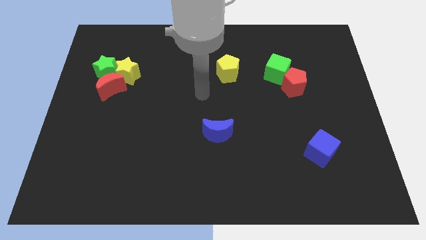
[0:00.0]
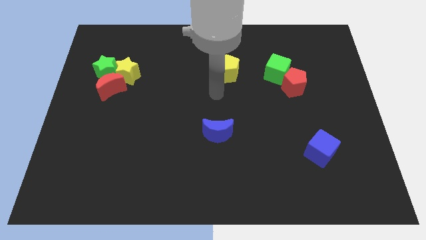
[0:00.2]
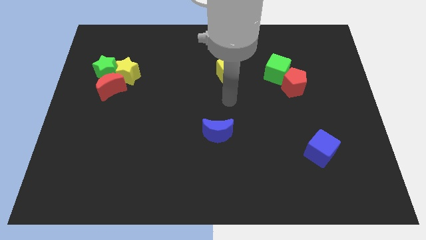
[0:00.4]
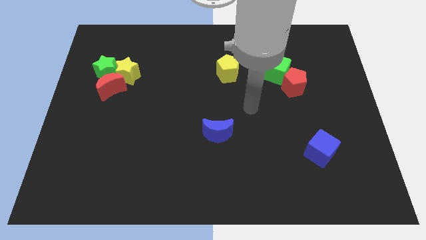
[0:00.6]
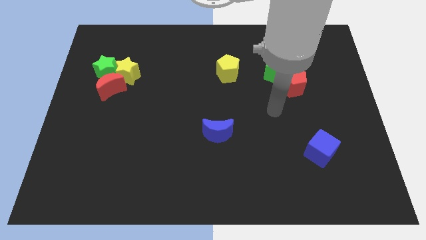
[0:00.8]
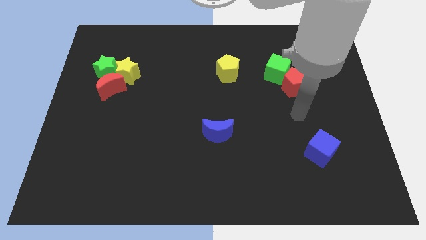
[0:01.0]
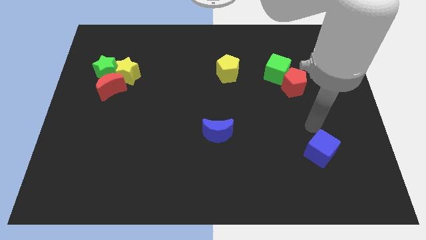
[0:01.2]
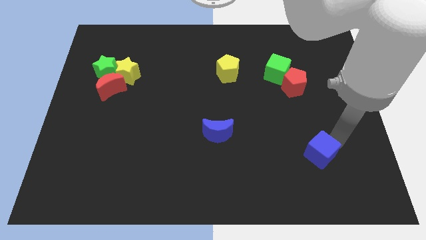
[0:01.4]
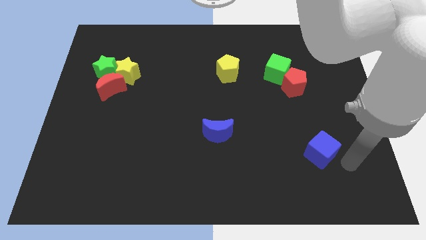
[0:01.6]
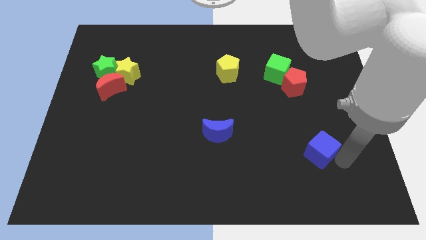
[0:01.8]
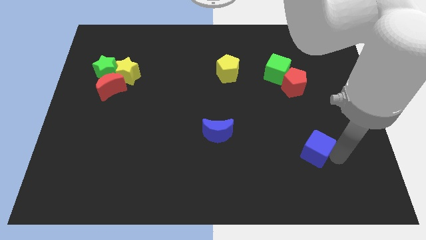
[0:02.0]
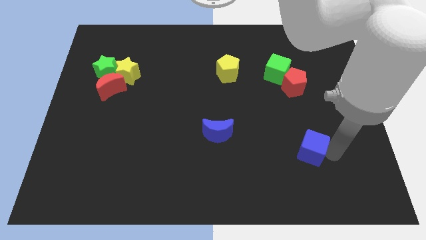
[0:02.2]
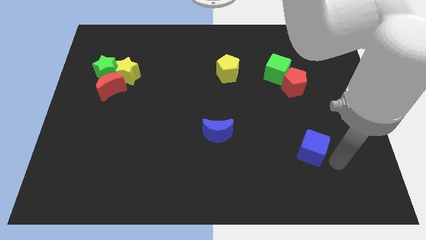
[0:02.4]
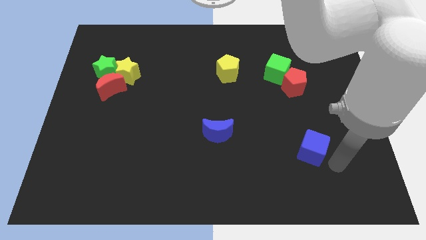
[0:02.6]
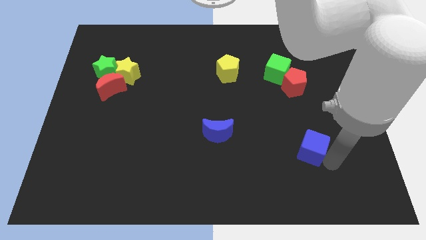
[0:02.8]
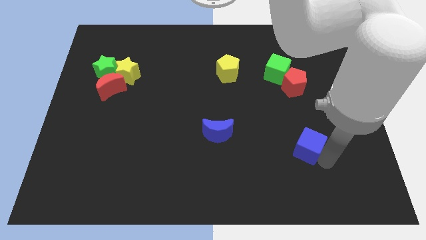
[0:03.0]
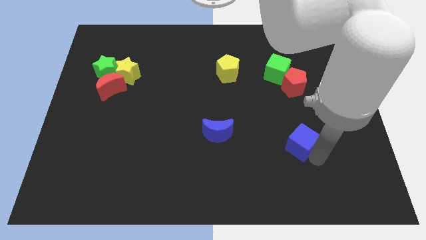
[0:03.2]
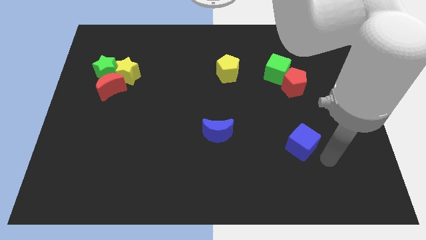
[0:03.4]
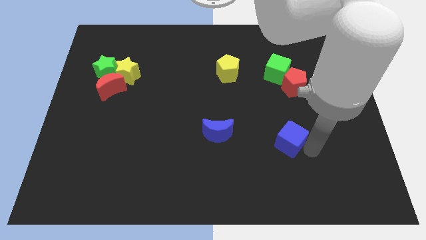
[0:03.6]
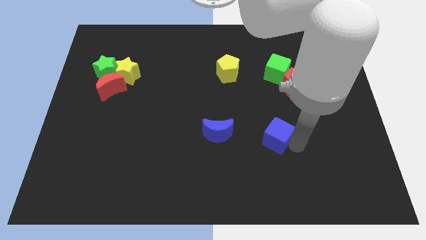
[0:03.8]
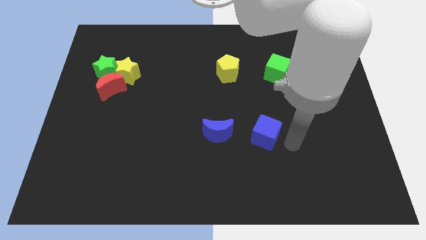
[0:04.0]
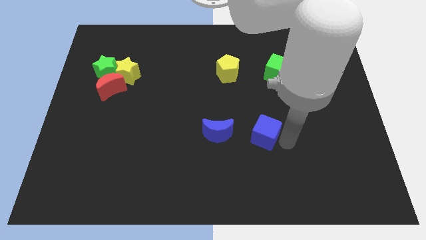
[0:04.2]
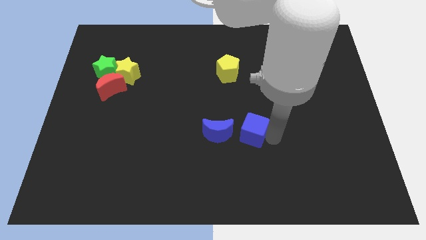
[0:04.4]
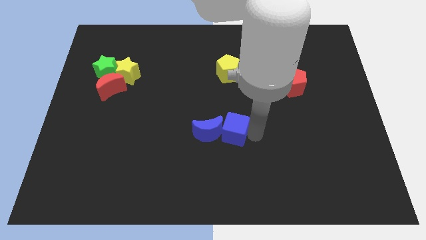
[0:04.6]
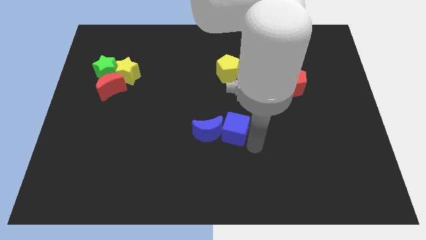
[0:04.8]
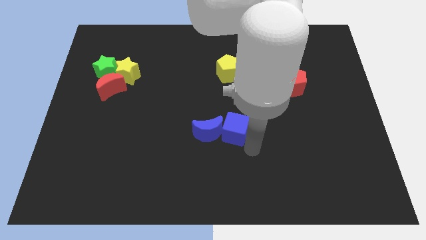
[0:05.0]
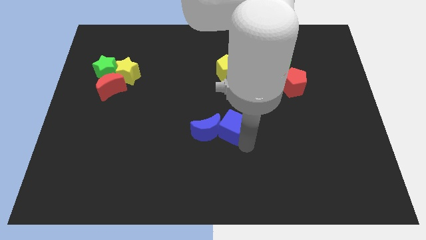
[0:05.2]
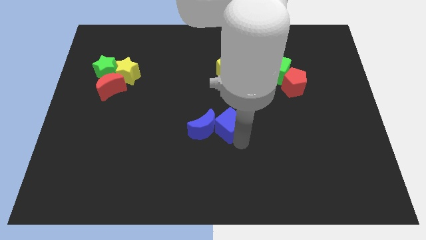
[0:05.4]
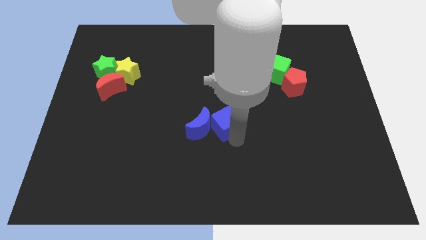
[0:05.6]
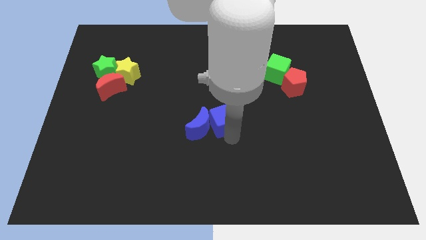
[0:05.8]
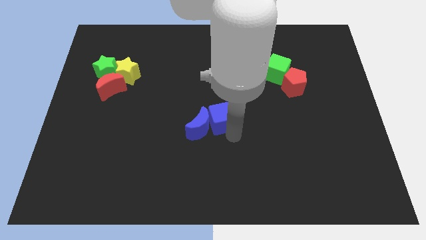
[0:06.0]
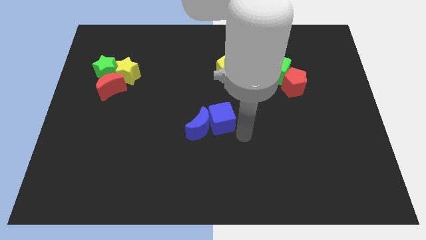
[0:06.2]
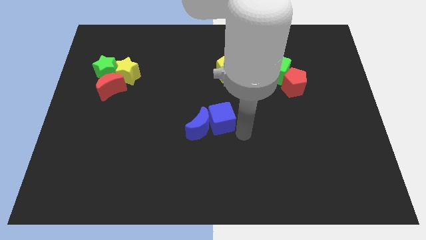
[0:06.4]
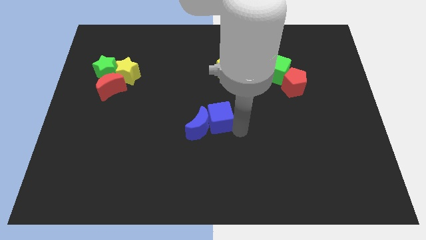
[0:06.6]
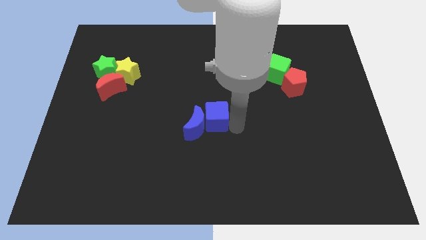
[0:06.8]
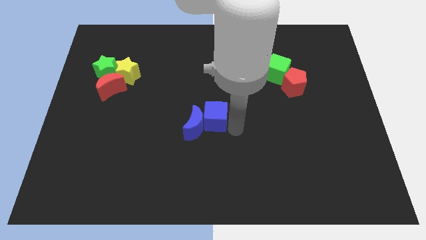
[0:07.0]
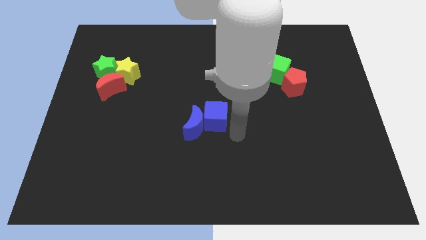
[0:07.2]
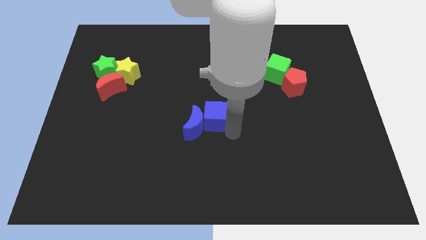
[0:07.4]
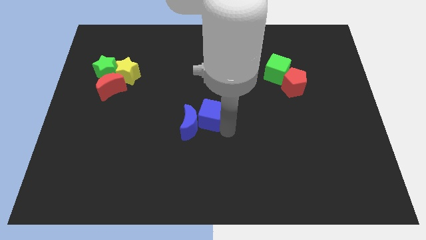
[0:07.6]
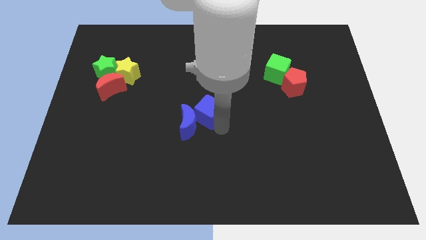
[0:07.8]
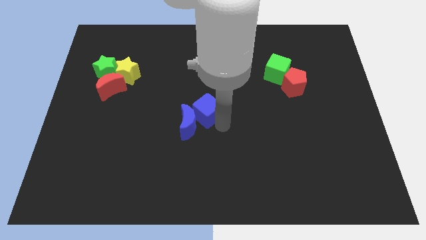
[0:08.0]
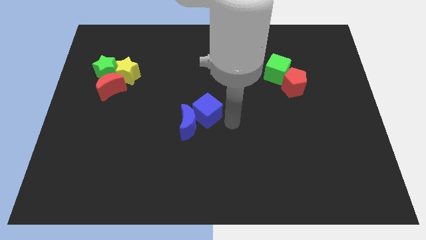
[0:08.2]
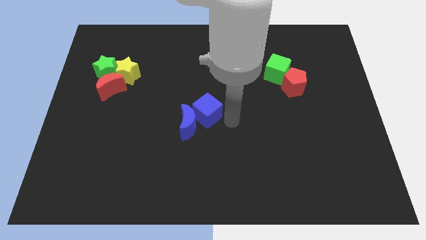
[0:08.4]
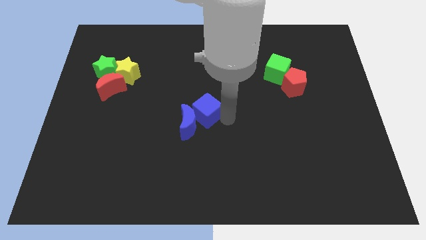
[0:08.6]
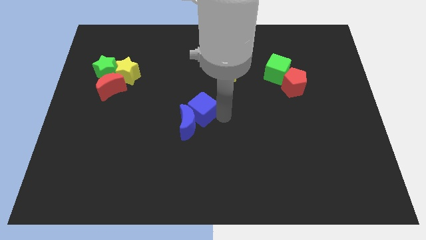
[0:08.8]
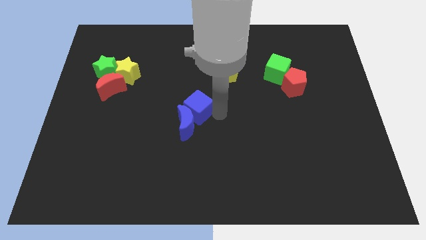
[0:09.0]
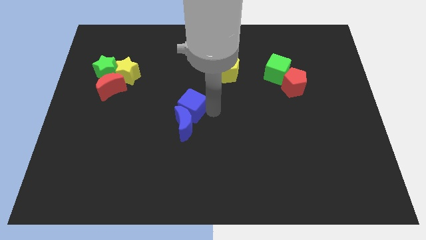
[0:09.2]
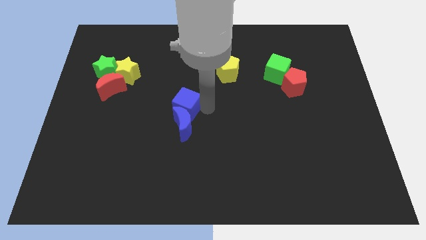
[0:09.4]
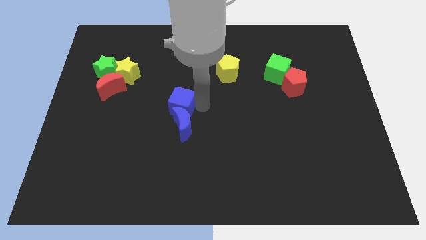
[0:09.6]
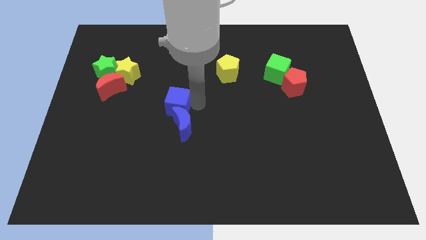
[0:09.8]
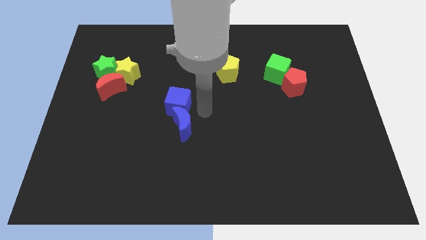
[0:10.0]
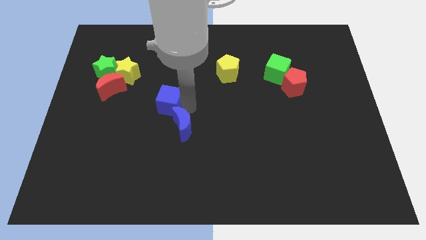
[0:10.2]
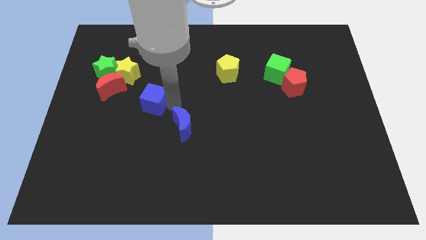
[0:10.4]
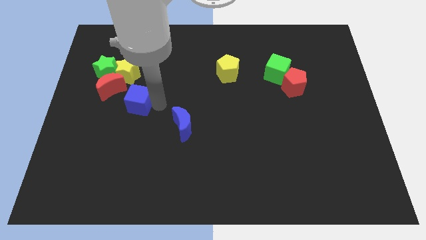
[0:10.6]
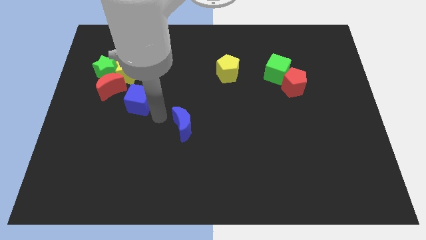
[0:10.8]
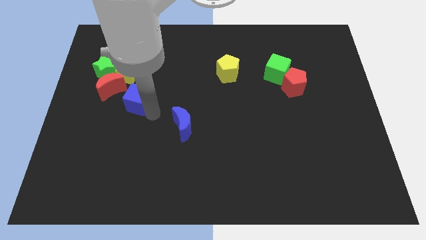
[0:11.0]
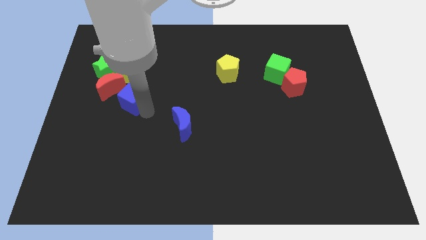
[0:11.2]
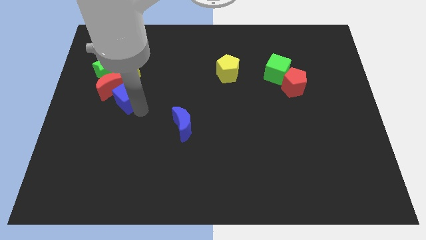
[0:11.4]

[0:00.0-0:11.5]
move the blue cube to the red moon

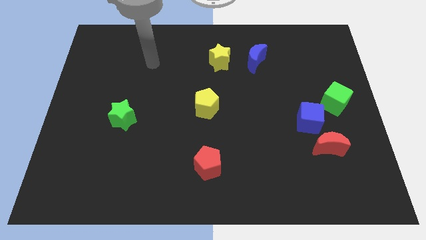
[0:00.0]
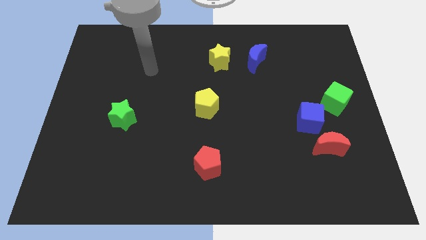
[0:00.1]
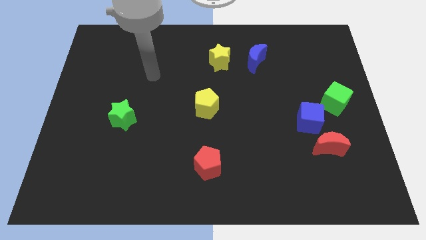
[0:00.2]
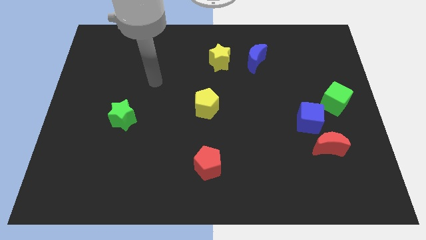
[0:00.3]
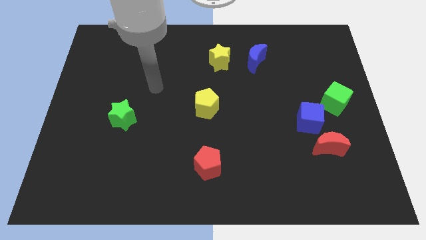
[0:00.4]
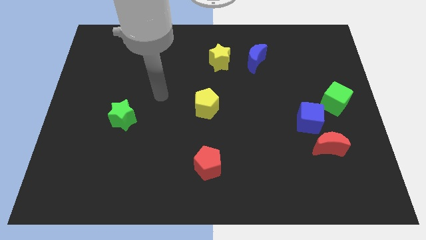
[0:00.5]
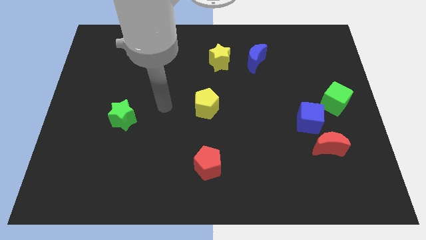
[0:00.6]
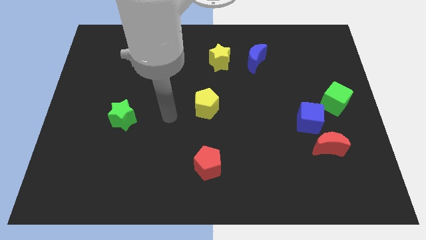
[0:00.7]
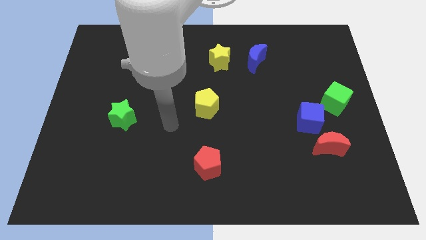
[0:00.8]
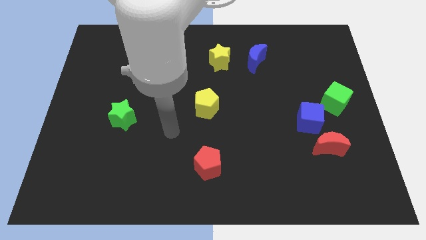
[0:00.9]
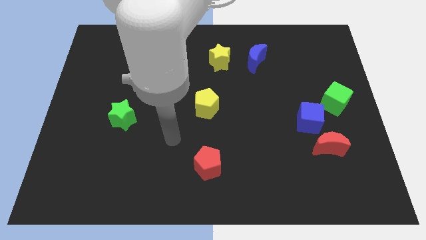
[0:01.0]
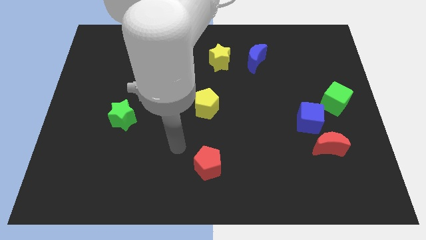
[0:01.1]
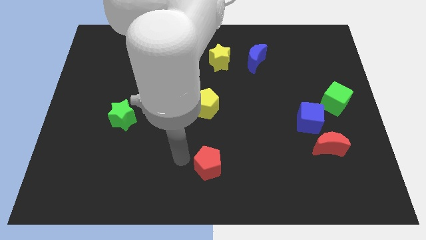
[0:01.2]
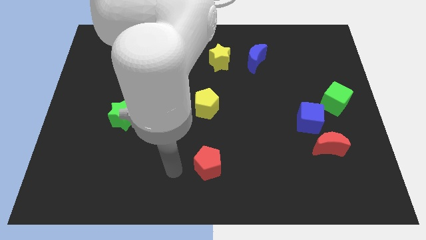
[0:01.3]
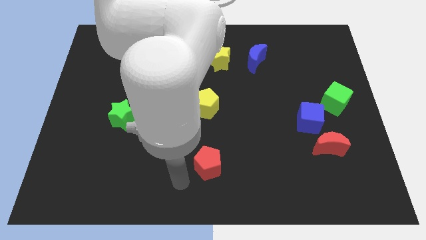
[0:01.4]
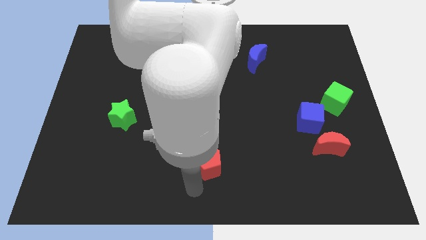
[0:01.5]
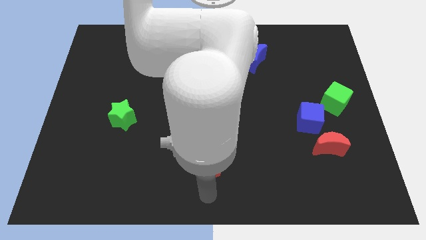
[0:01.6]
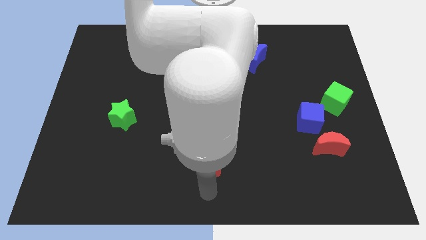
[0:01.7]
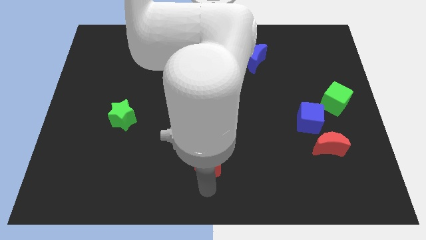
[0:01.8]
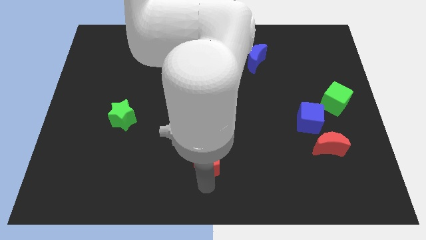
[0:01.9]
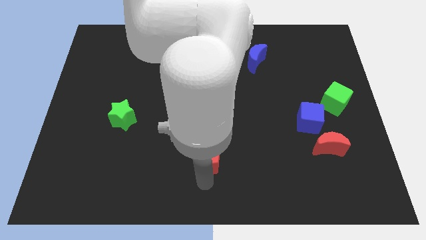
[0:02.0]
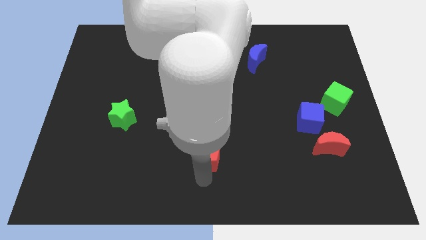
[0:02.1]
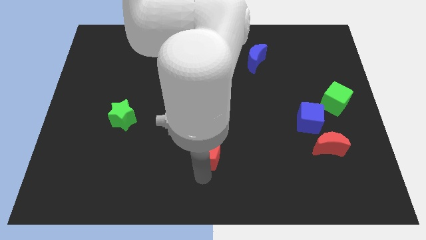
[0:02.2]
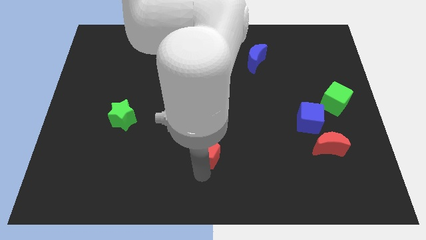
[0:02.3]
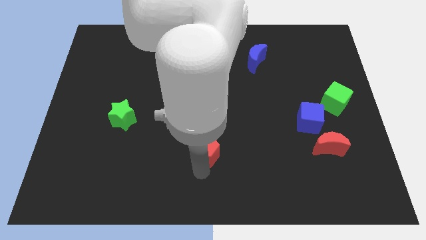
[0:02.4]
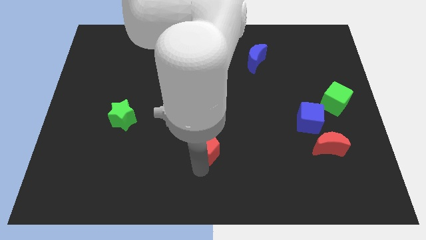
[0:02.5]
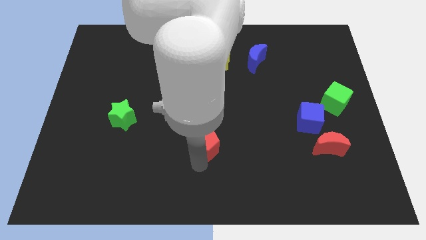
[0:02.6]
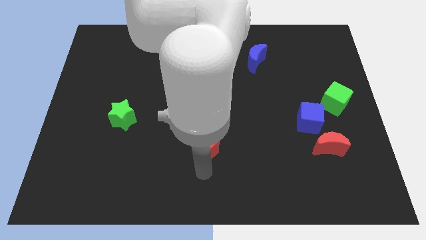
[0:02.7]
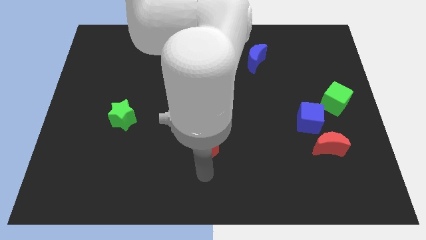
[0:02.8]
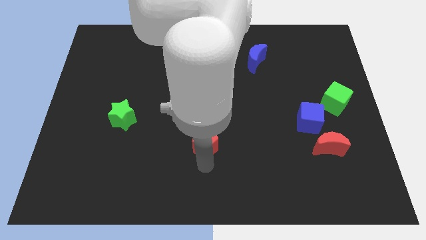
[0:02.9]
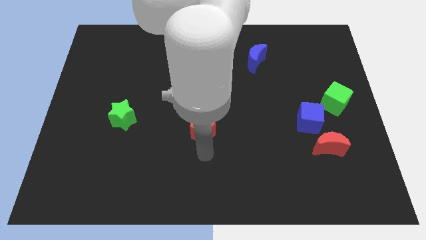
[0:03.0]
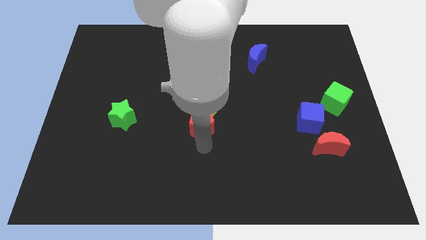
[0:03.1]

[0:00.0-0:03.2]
move the red pentagon close to the yellow pentagon
